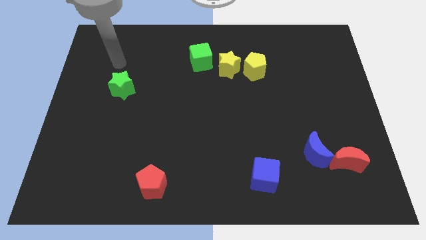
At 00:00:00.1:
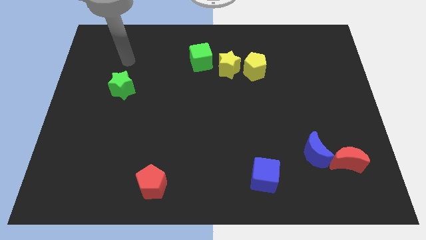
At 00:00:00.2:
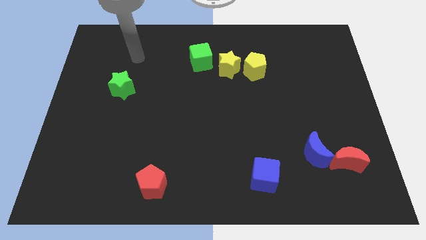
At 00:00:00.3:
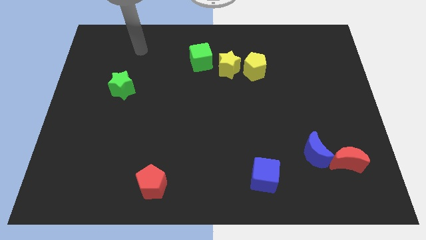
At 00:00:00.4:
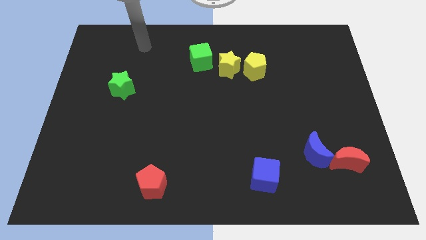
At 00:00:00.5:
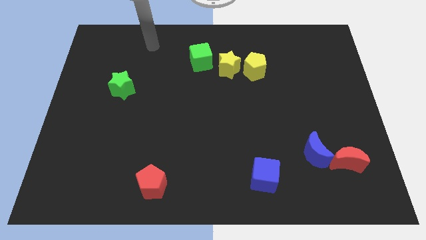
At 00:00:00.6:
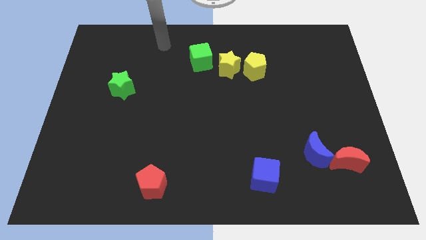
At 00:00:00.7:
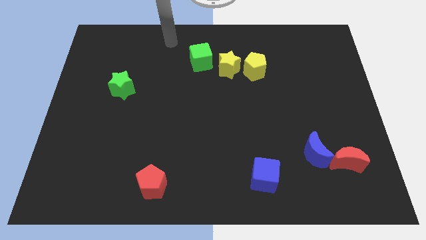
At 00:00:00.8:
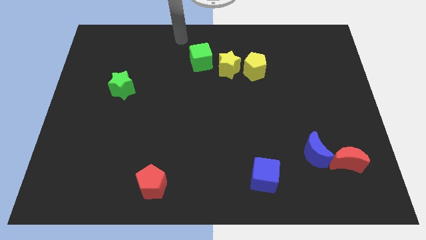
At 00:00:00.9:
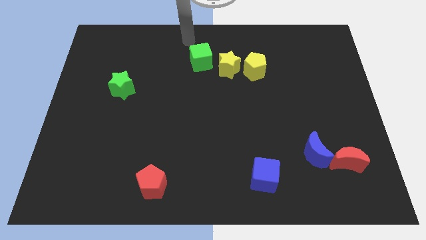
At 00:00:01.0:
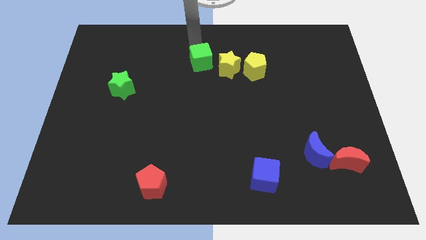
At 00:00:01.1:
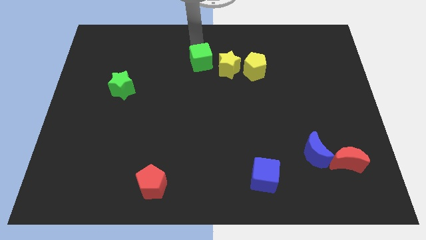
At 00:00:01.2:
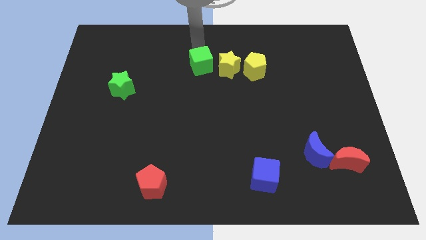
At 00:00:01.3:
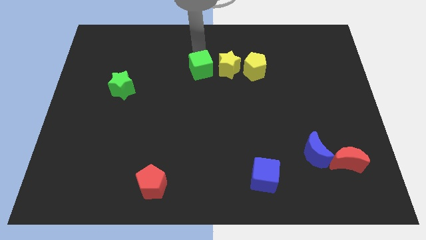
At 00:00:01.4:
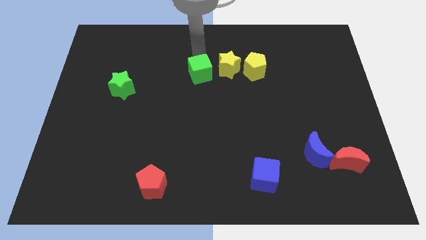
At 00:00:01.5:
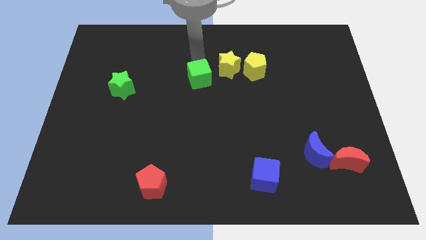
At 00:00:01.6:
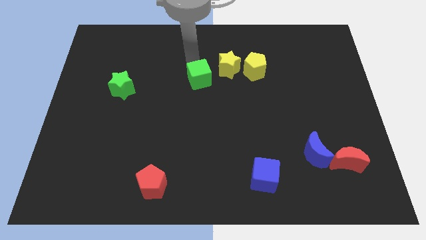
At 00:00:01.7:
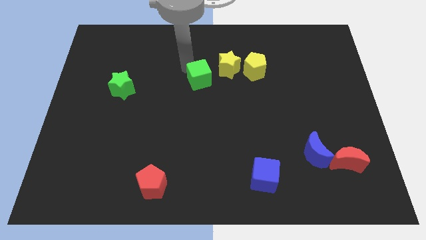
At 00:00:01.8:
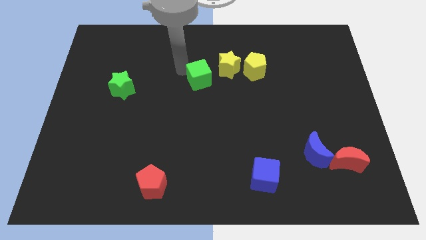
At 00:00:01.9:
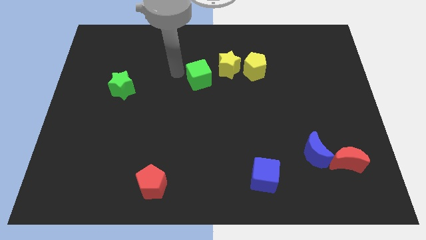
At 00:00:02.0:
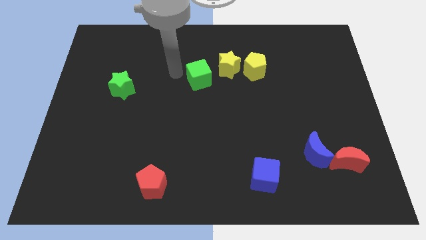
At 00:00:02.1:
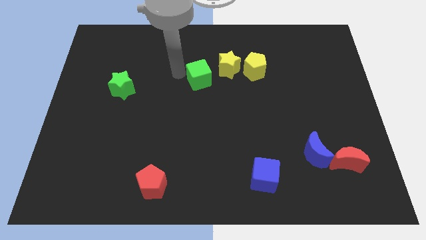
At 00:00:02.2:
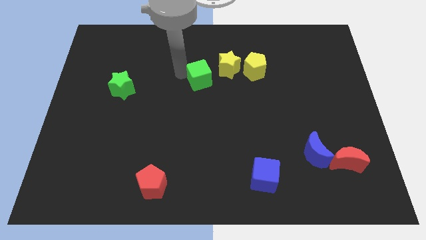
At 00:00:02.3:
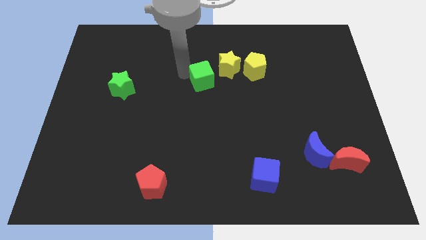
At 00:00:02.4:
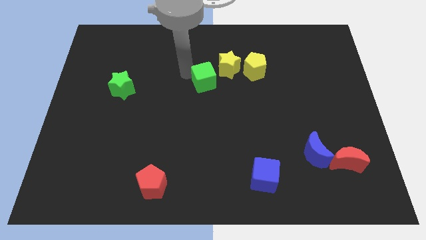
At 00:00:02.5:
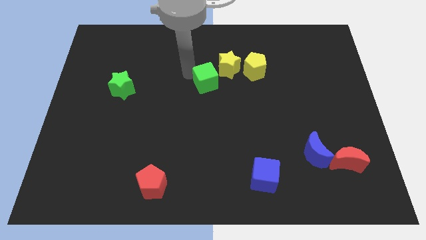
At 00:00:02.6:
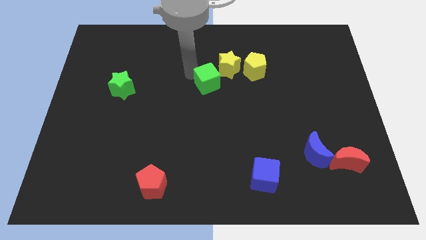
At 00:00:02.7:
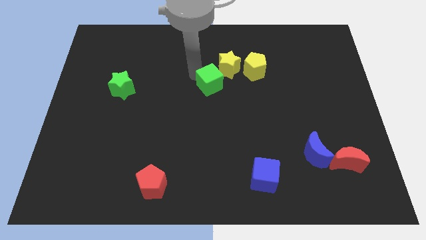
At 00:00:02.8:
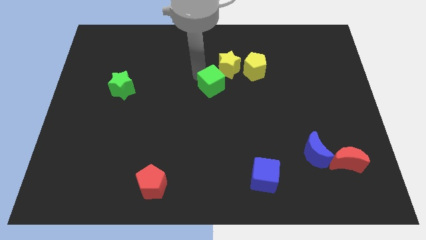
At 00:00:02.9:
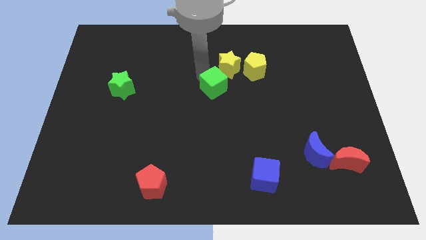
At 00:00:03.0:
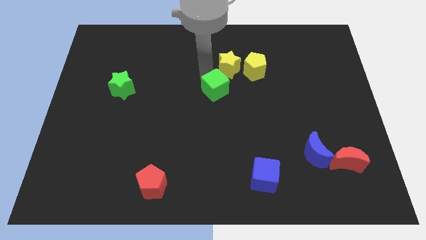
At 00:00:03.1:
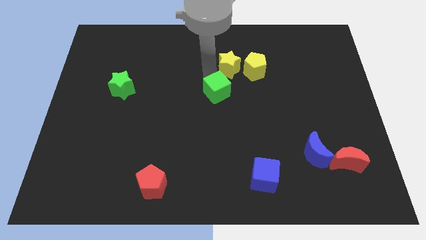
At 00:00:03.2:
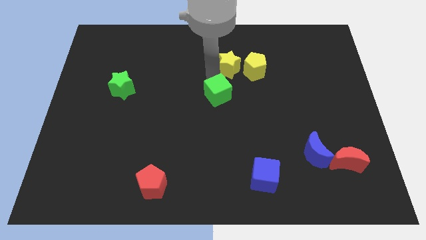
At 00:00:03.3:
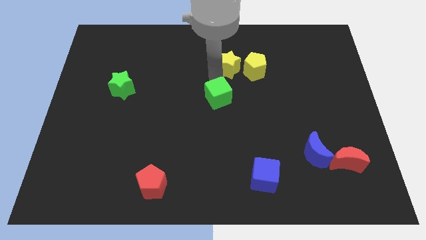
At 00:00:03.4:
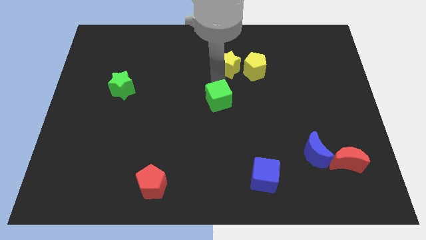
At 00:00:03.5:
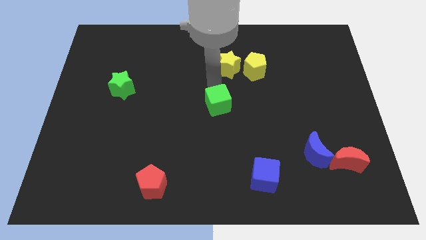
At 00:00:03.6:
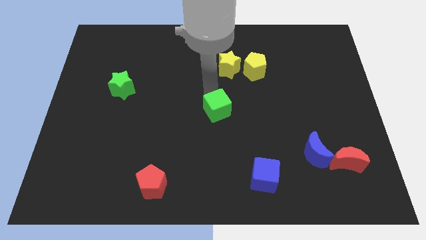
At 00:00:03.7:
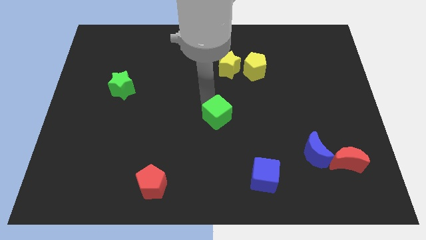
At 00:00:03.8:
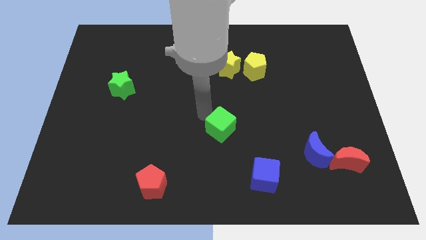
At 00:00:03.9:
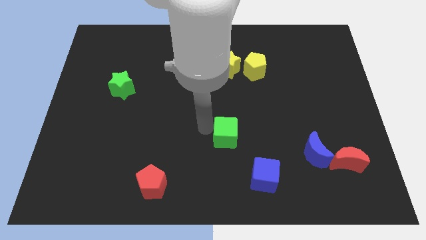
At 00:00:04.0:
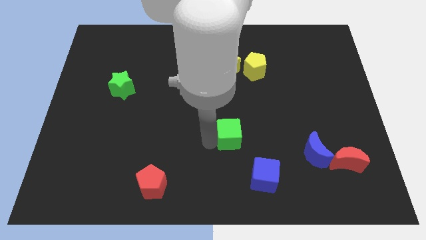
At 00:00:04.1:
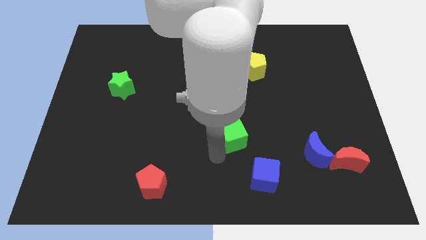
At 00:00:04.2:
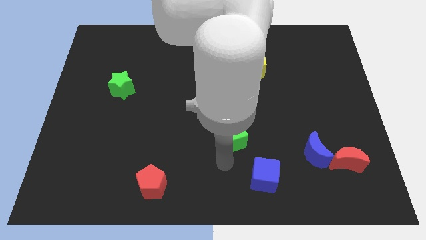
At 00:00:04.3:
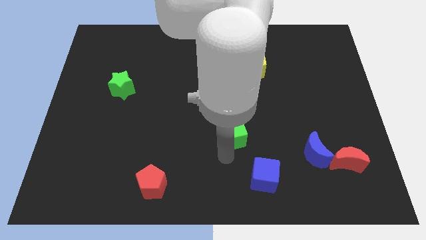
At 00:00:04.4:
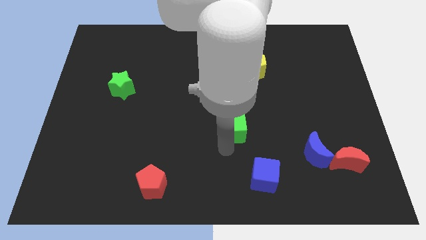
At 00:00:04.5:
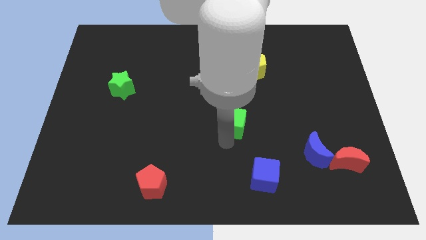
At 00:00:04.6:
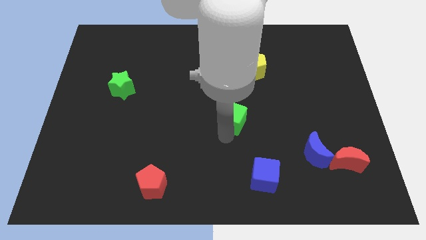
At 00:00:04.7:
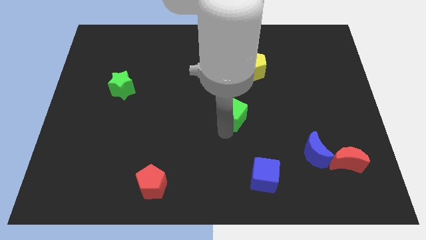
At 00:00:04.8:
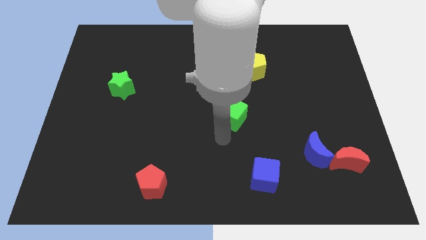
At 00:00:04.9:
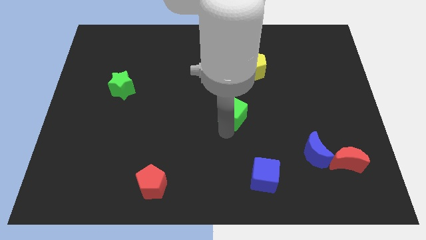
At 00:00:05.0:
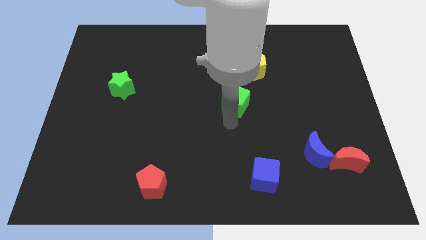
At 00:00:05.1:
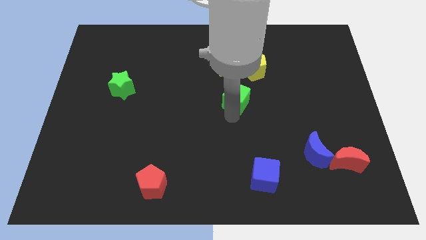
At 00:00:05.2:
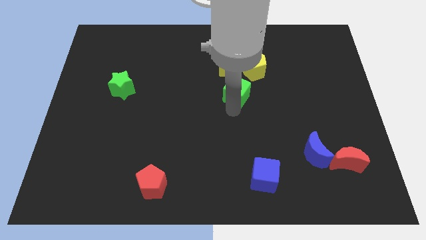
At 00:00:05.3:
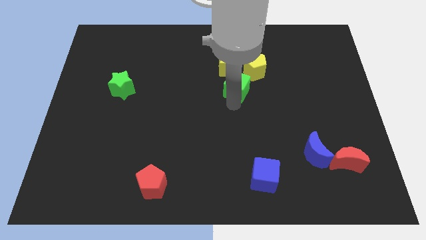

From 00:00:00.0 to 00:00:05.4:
slide the green cube to the bottom right side of the yellow star

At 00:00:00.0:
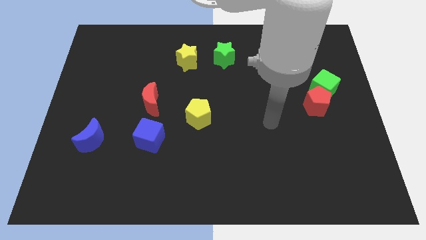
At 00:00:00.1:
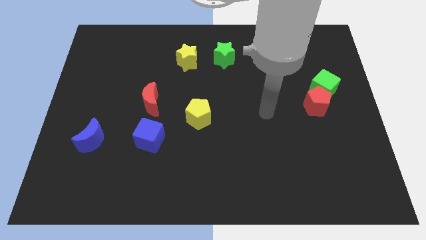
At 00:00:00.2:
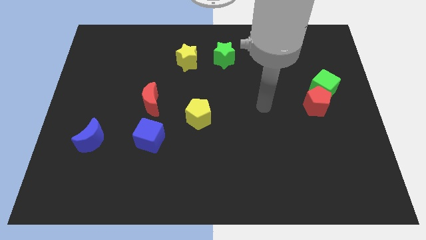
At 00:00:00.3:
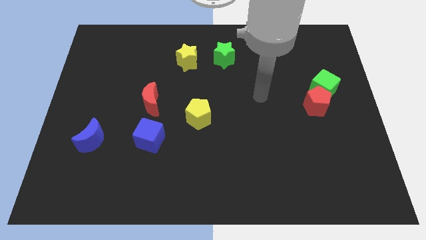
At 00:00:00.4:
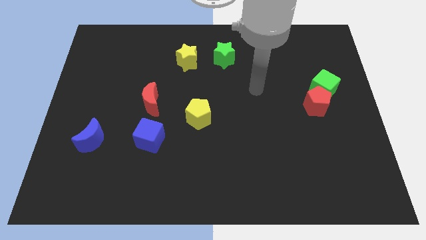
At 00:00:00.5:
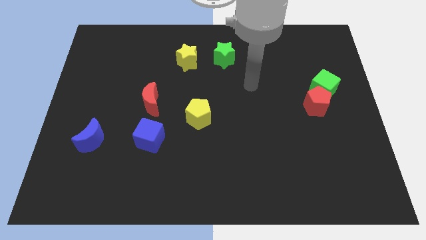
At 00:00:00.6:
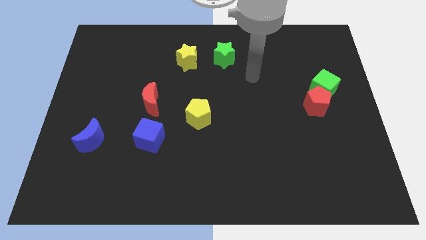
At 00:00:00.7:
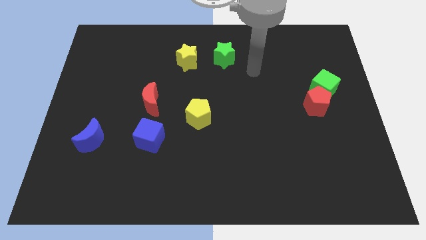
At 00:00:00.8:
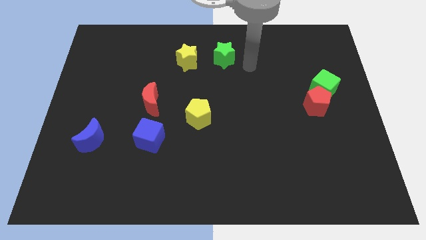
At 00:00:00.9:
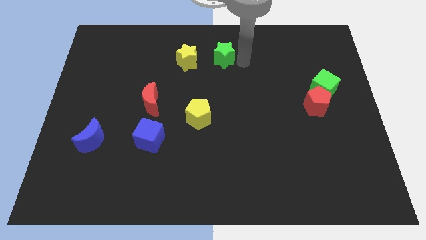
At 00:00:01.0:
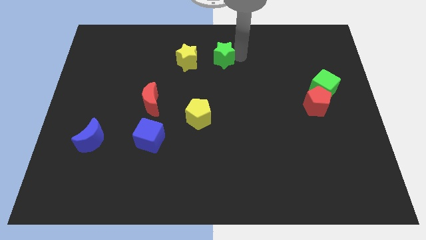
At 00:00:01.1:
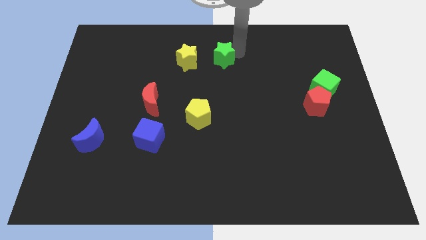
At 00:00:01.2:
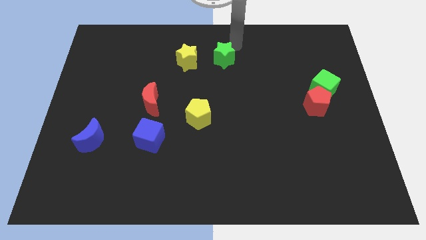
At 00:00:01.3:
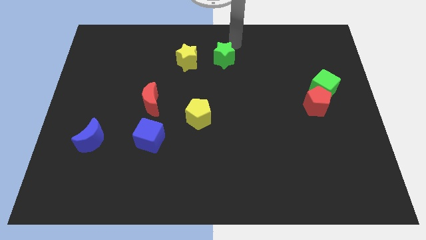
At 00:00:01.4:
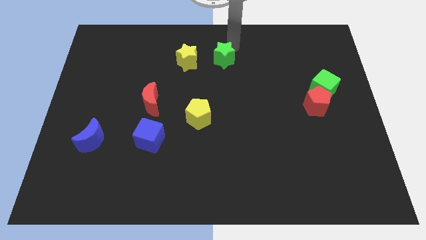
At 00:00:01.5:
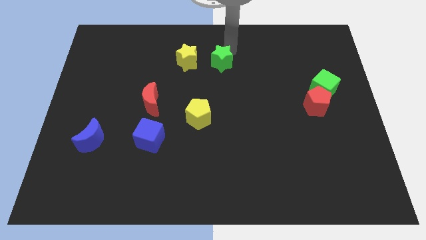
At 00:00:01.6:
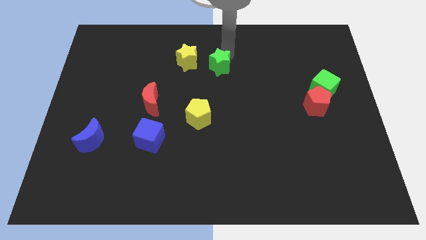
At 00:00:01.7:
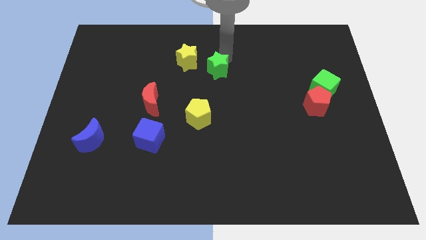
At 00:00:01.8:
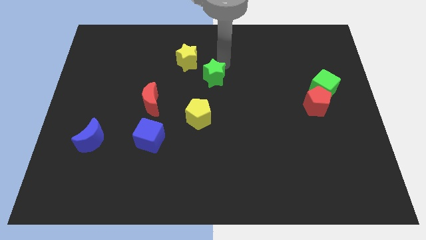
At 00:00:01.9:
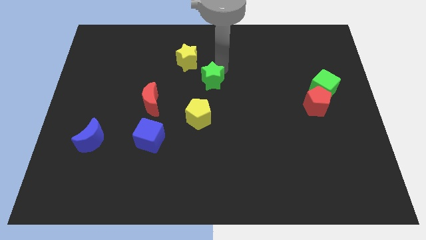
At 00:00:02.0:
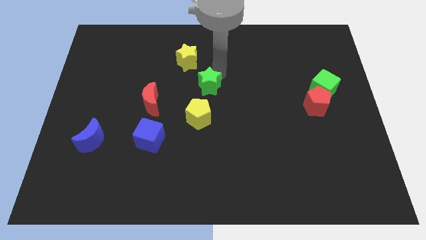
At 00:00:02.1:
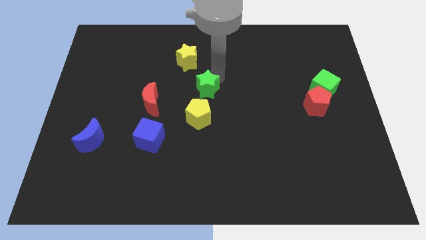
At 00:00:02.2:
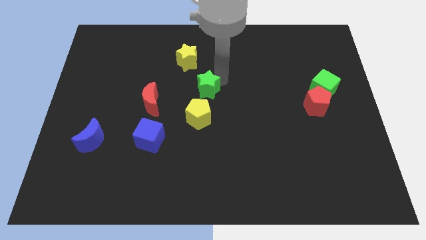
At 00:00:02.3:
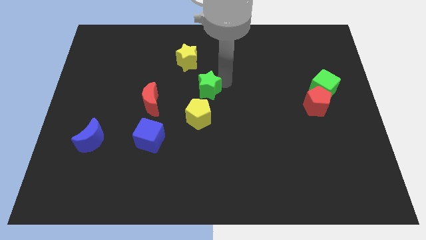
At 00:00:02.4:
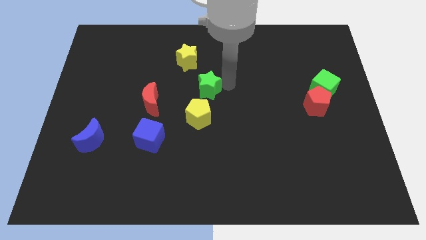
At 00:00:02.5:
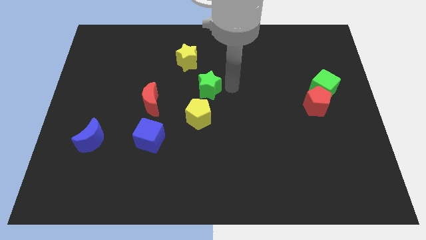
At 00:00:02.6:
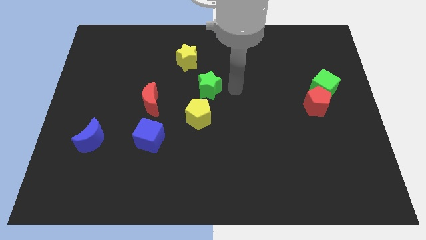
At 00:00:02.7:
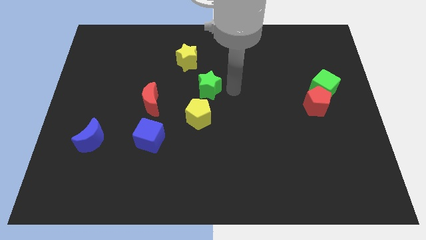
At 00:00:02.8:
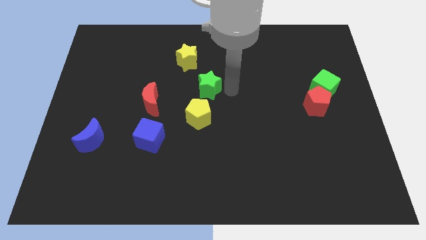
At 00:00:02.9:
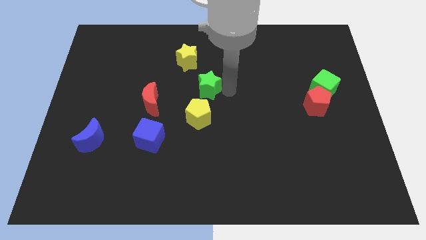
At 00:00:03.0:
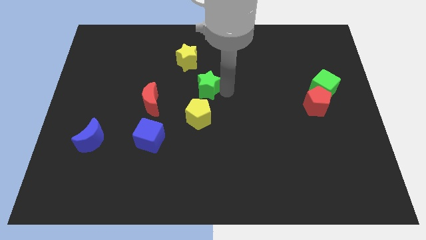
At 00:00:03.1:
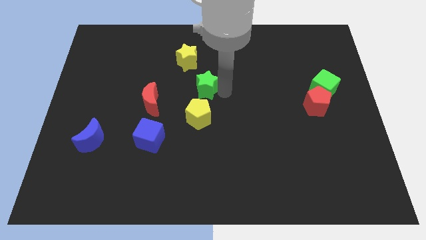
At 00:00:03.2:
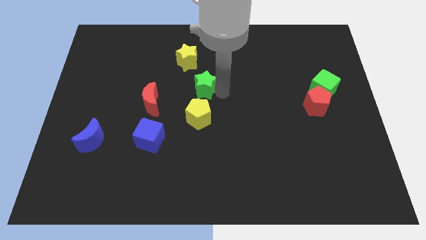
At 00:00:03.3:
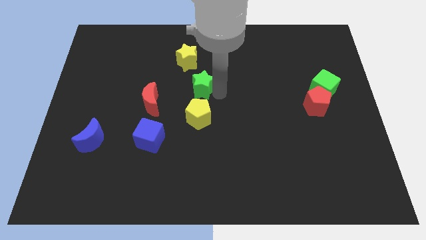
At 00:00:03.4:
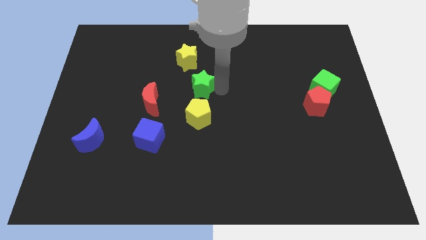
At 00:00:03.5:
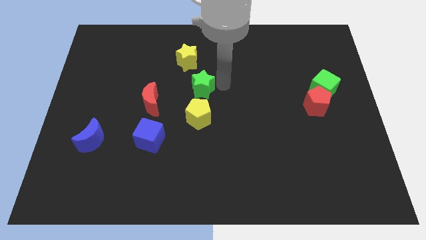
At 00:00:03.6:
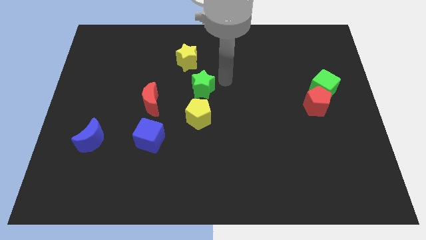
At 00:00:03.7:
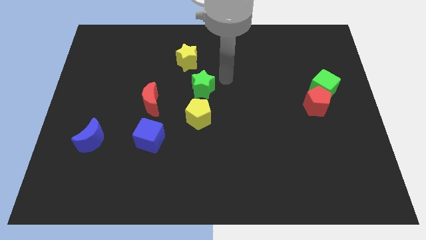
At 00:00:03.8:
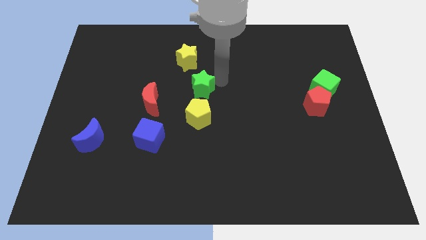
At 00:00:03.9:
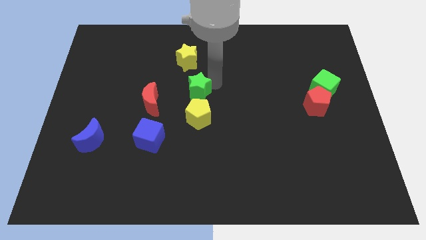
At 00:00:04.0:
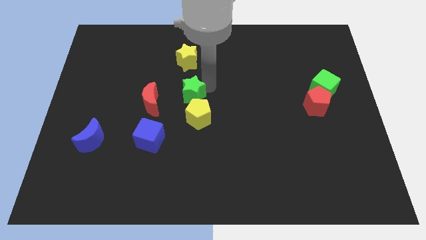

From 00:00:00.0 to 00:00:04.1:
put the green star diagonally up and to the left of the yellow pentagon
